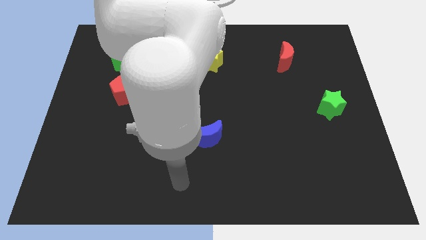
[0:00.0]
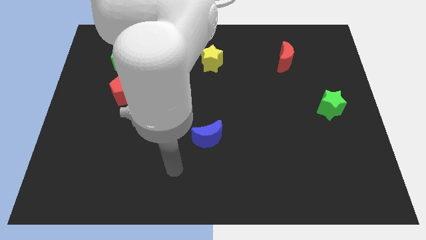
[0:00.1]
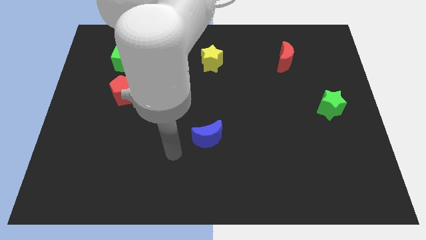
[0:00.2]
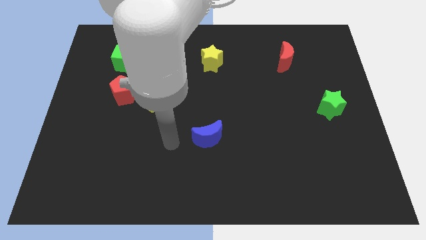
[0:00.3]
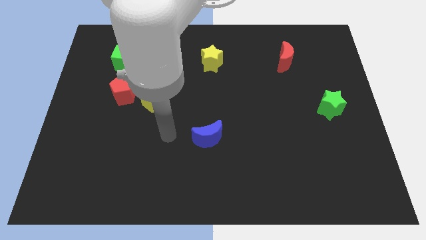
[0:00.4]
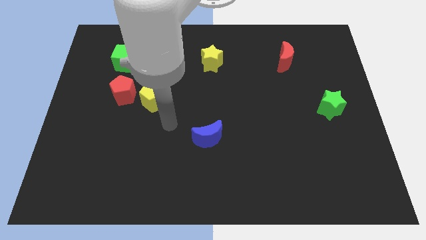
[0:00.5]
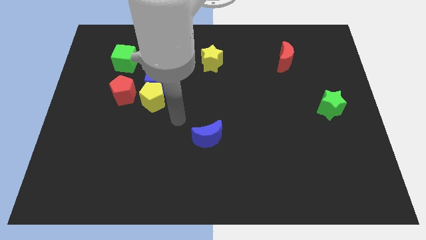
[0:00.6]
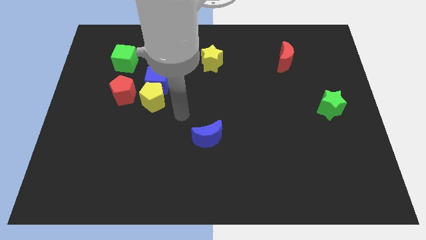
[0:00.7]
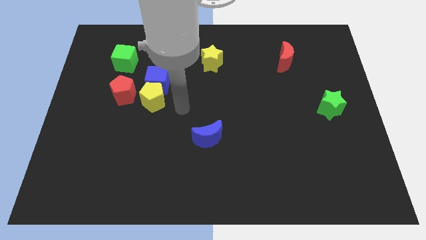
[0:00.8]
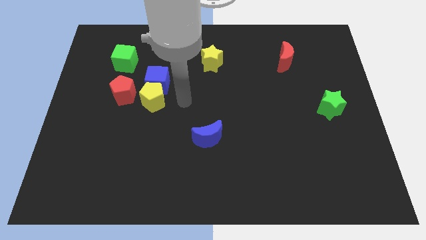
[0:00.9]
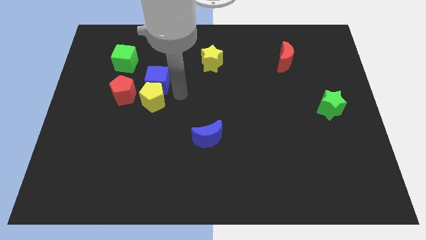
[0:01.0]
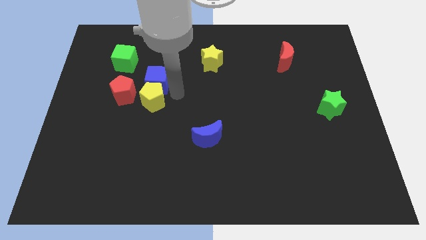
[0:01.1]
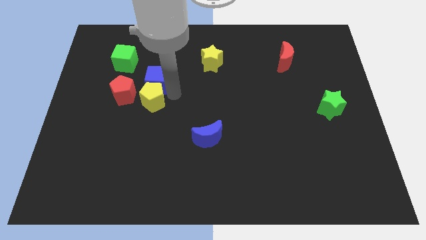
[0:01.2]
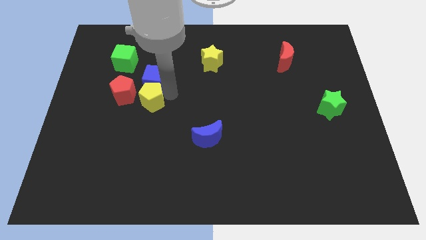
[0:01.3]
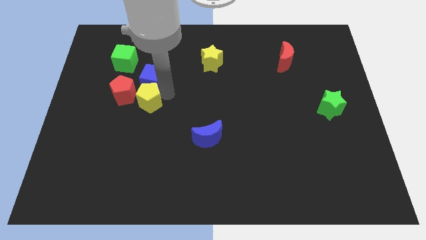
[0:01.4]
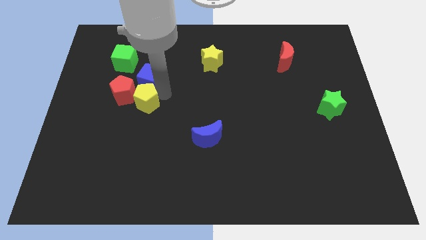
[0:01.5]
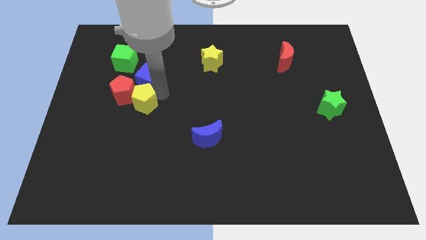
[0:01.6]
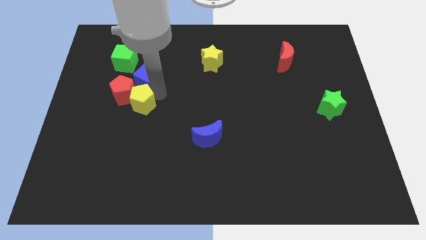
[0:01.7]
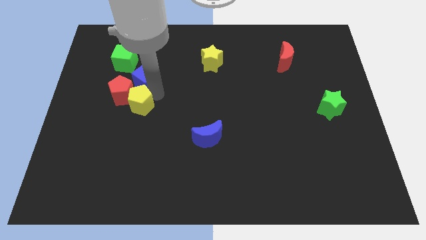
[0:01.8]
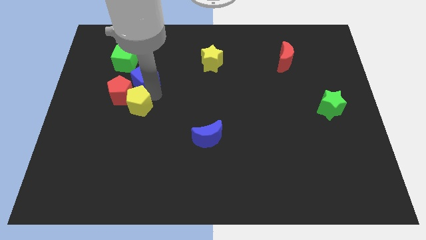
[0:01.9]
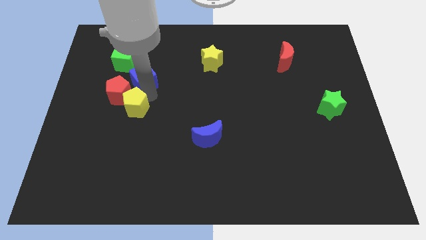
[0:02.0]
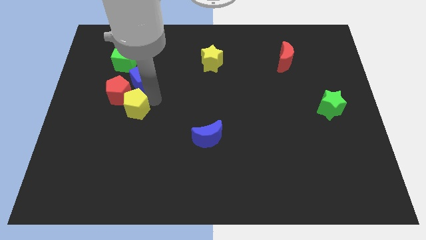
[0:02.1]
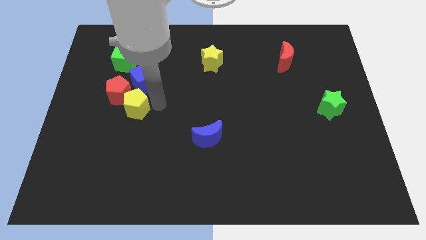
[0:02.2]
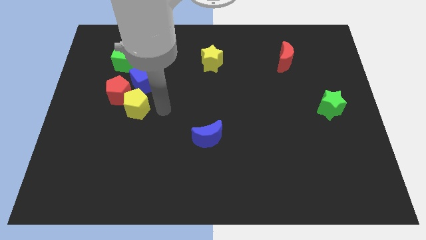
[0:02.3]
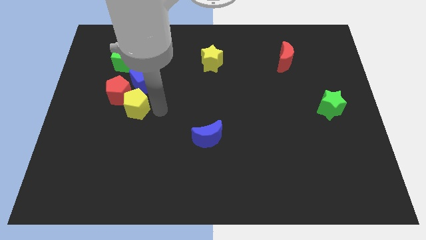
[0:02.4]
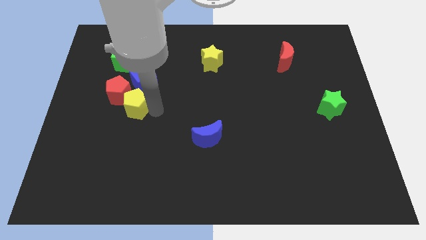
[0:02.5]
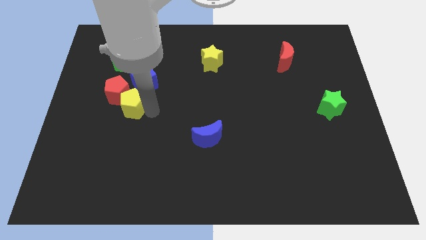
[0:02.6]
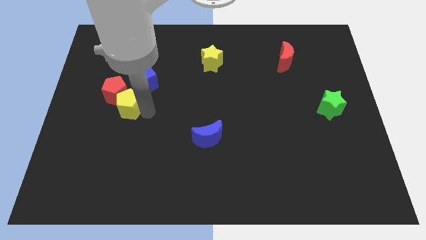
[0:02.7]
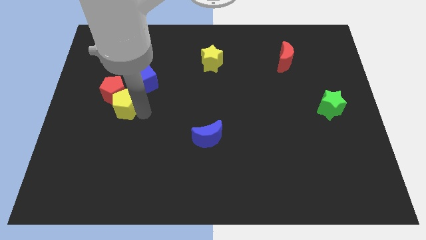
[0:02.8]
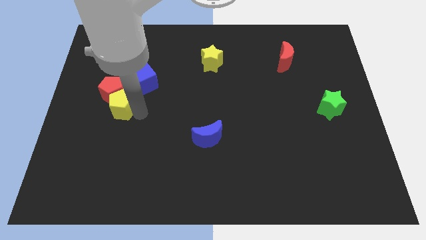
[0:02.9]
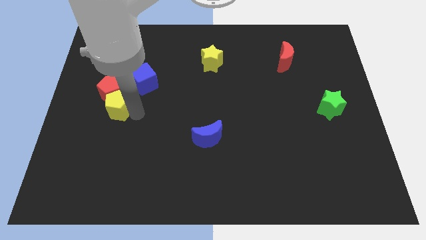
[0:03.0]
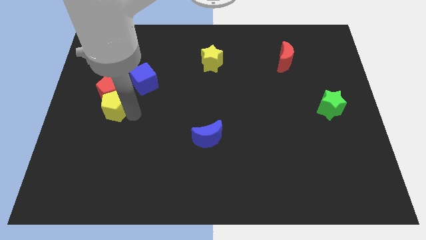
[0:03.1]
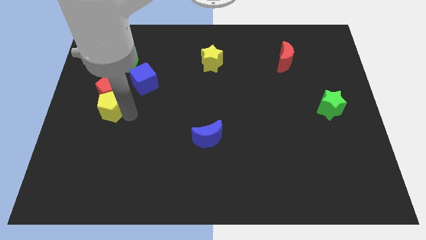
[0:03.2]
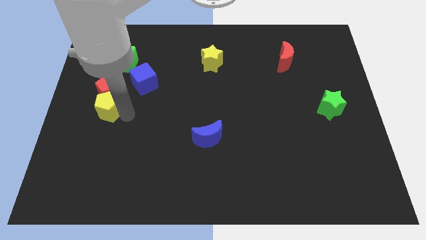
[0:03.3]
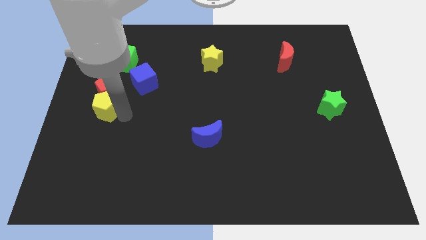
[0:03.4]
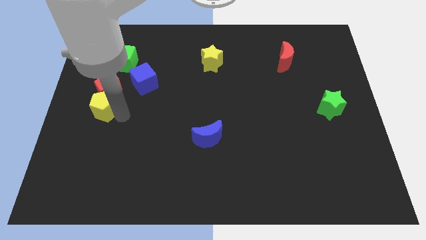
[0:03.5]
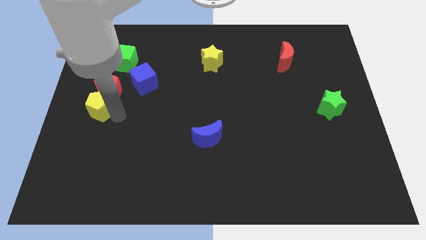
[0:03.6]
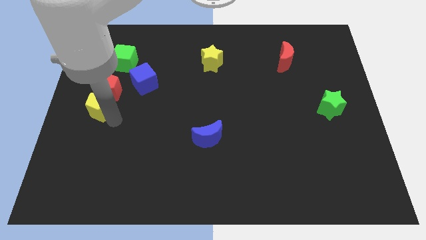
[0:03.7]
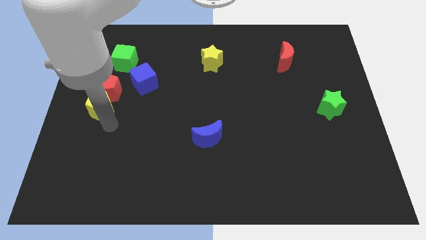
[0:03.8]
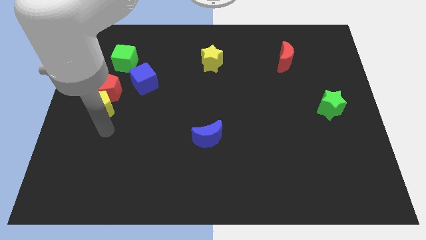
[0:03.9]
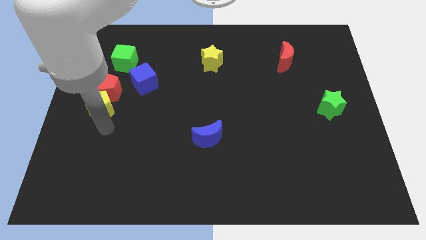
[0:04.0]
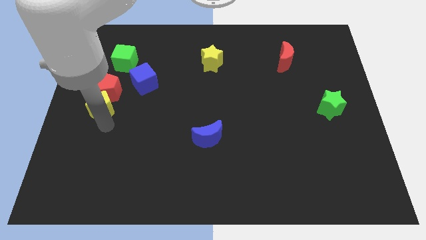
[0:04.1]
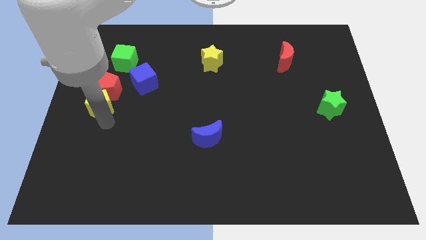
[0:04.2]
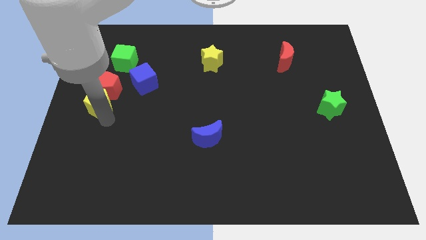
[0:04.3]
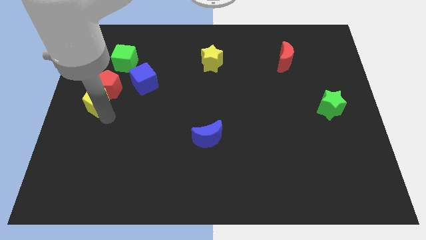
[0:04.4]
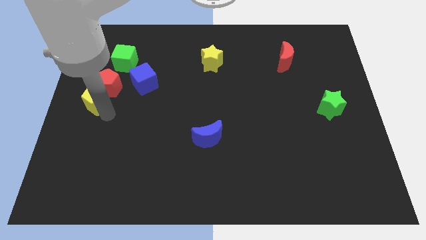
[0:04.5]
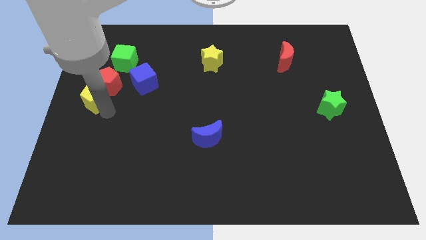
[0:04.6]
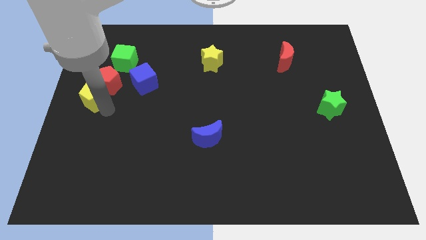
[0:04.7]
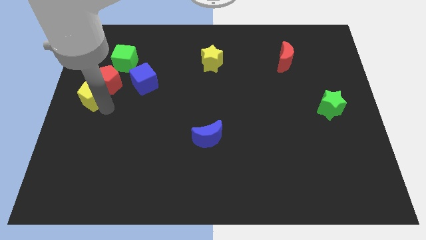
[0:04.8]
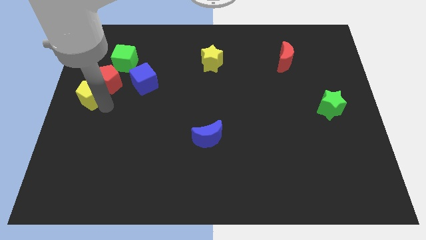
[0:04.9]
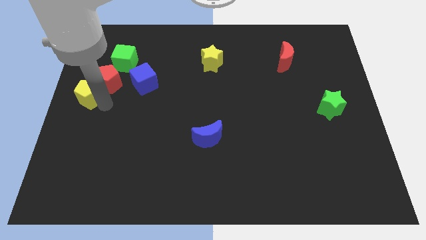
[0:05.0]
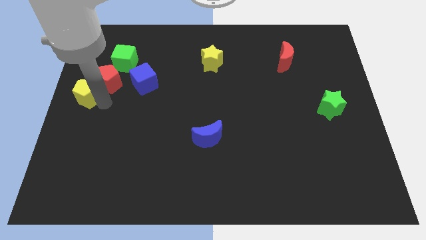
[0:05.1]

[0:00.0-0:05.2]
slide the yellow pentagon upwards and left diagonally somewhat

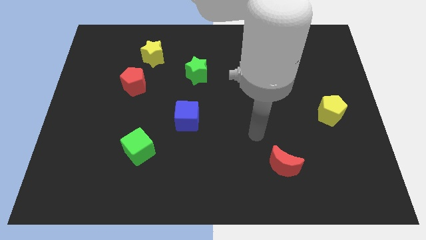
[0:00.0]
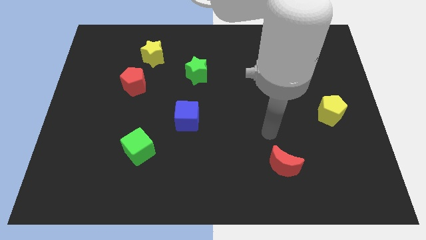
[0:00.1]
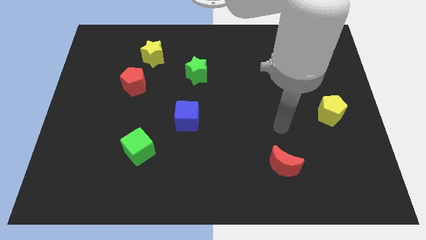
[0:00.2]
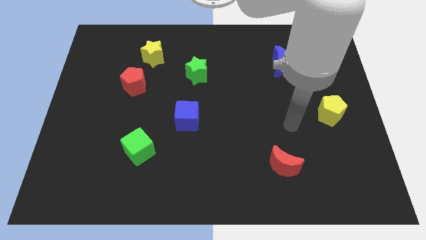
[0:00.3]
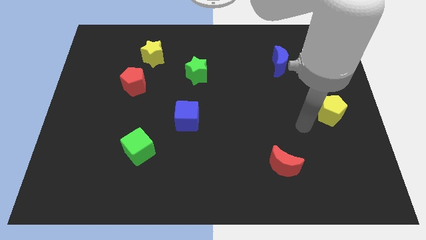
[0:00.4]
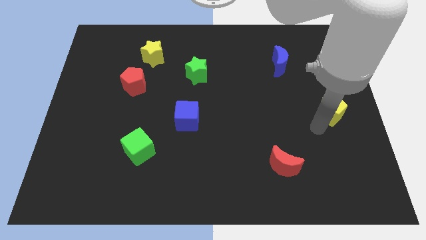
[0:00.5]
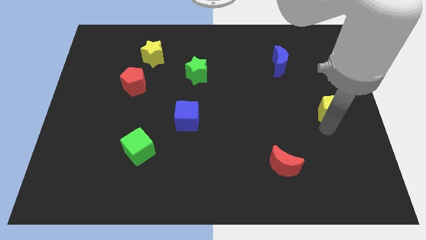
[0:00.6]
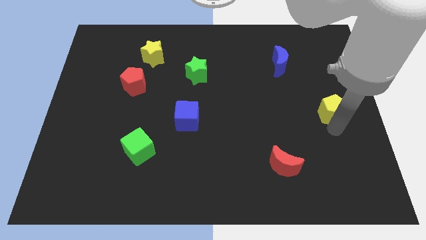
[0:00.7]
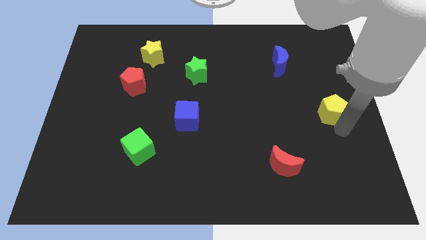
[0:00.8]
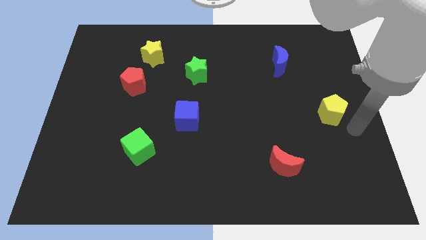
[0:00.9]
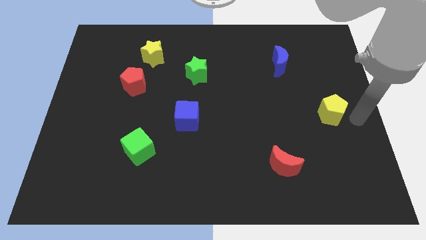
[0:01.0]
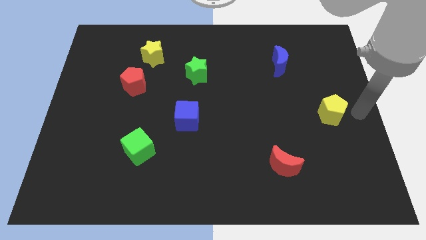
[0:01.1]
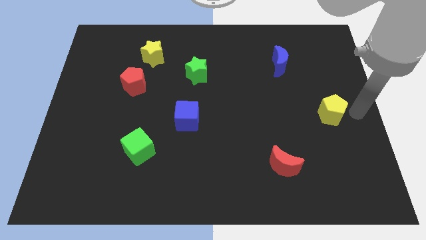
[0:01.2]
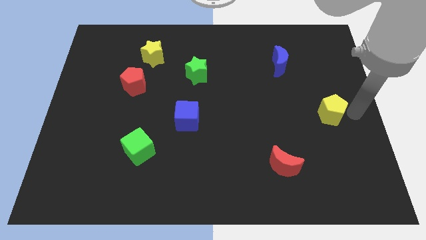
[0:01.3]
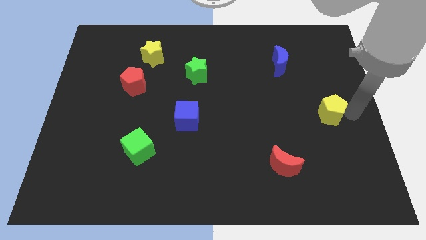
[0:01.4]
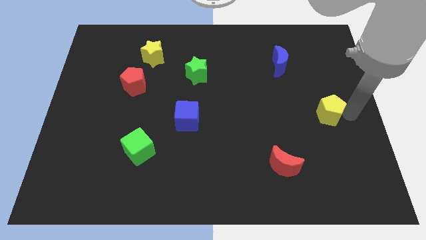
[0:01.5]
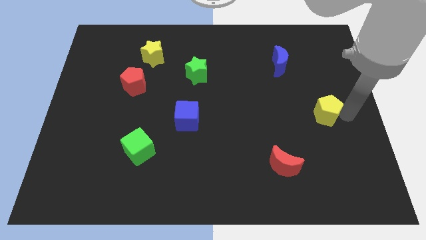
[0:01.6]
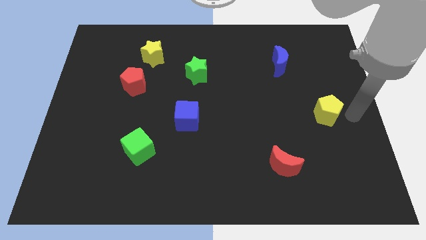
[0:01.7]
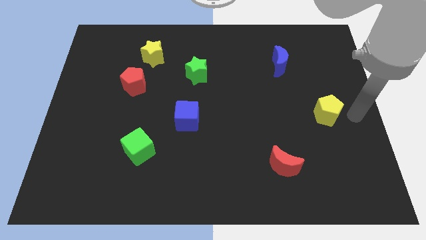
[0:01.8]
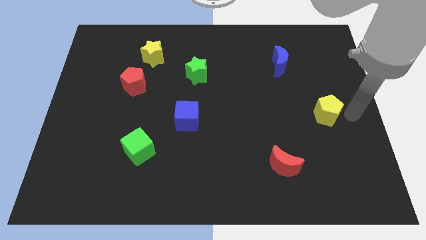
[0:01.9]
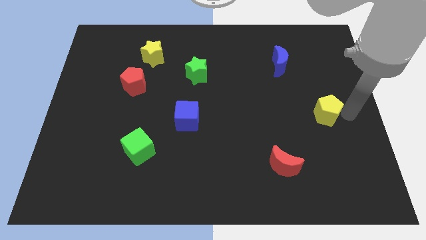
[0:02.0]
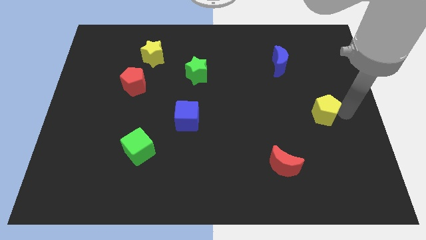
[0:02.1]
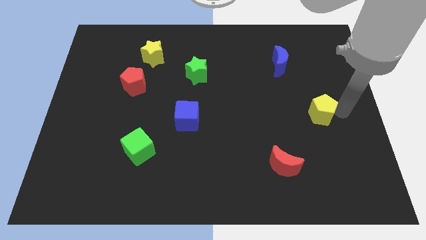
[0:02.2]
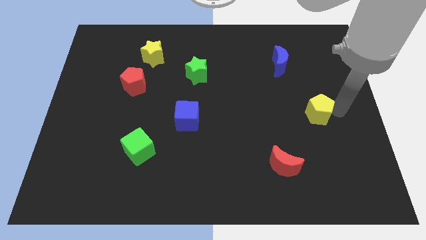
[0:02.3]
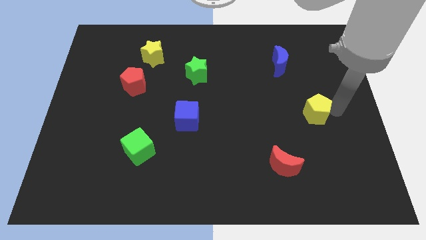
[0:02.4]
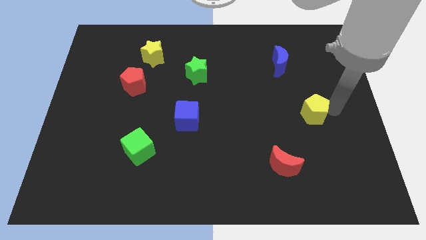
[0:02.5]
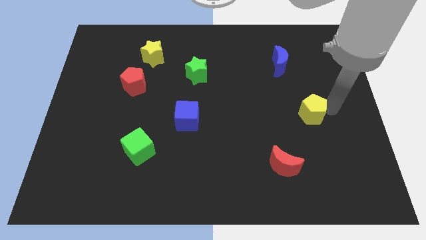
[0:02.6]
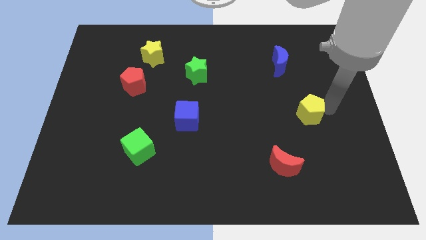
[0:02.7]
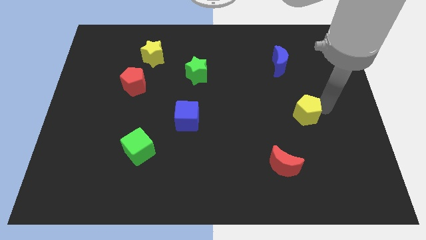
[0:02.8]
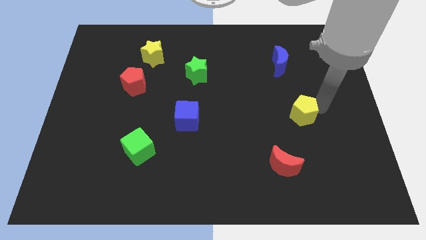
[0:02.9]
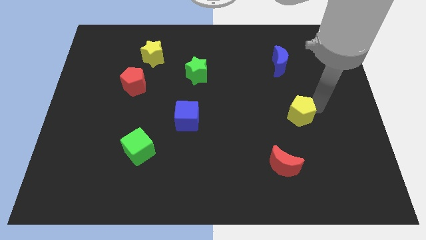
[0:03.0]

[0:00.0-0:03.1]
slide the yellow pentagon to the left a bit
